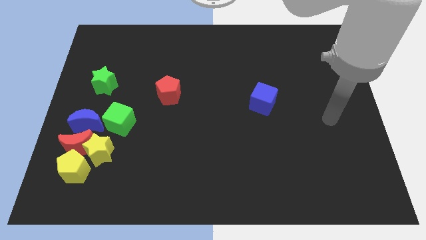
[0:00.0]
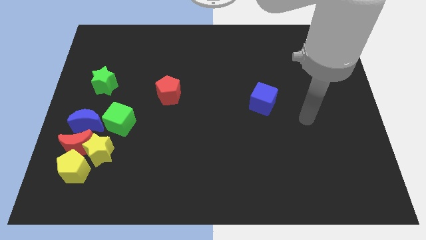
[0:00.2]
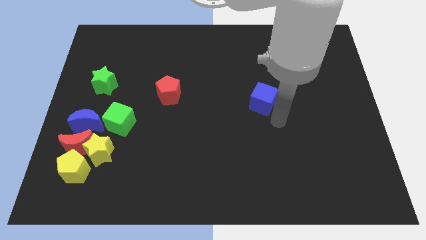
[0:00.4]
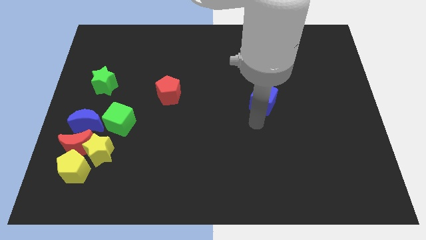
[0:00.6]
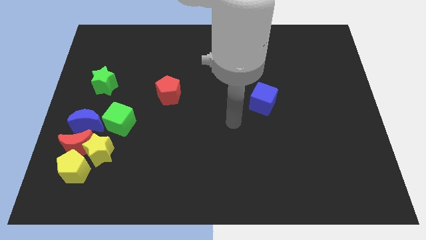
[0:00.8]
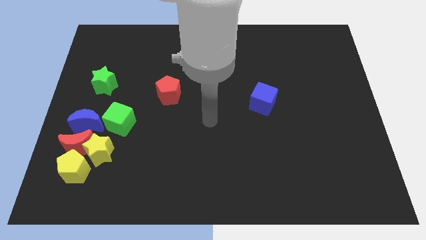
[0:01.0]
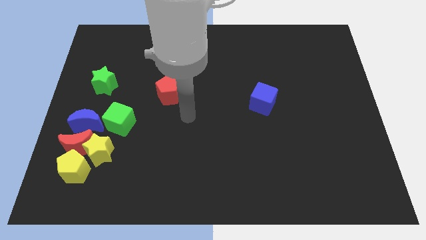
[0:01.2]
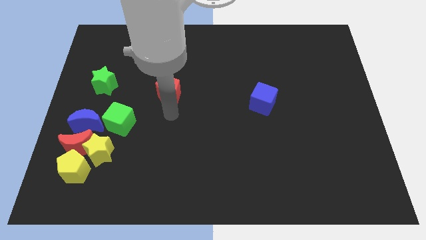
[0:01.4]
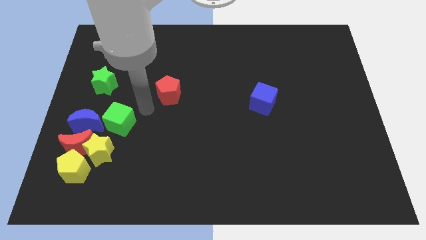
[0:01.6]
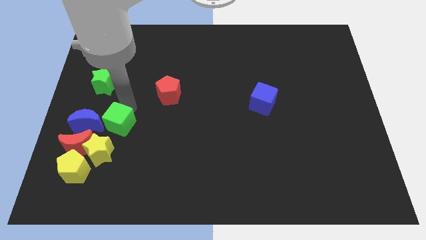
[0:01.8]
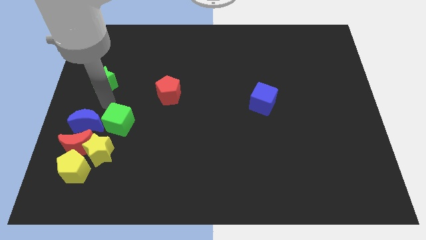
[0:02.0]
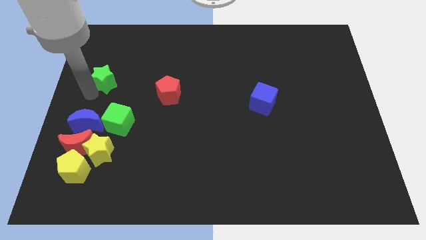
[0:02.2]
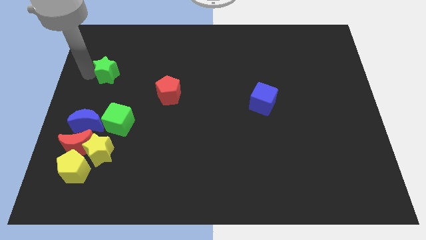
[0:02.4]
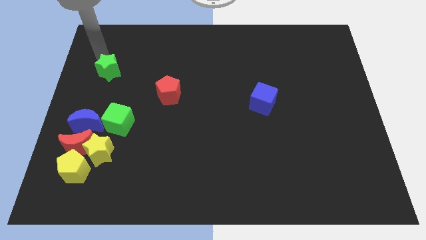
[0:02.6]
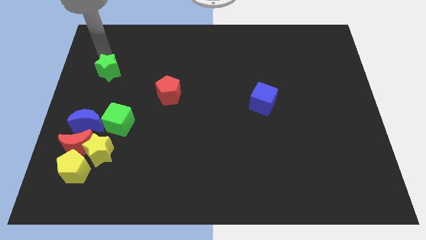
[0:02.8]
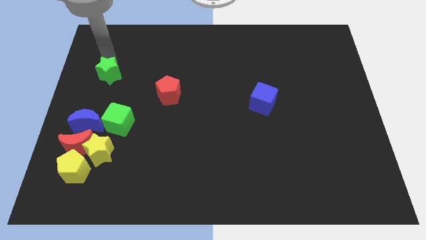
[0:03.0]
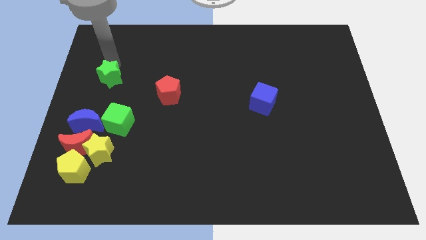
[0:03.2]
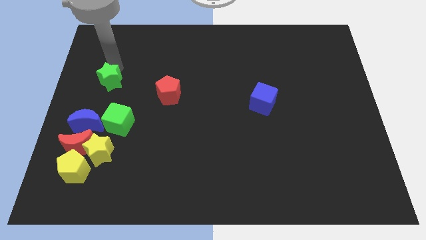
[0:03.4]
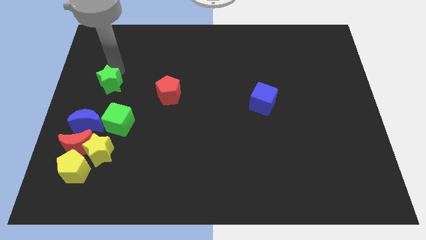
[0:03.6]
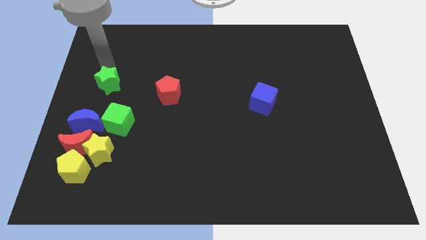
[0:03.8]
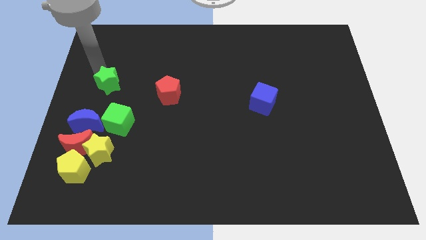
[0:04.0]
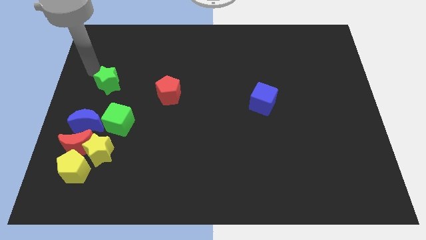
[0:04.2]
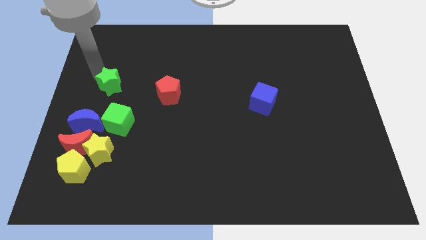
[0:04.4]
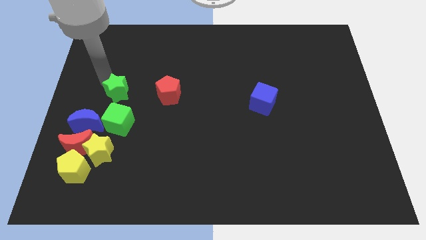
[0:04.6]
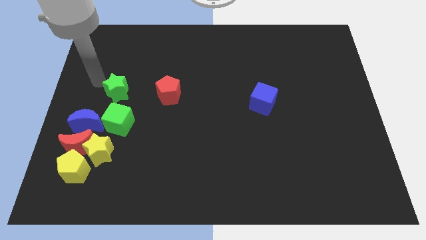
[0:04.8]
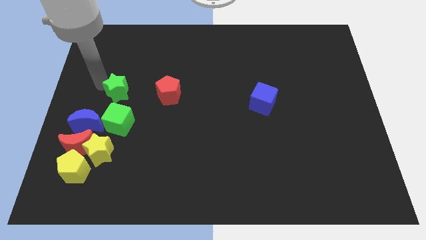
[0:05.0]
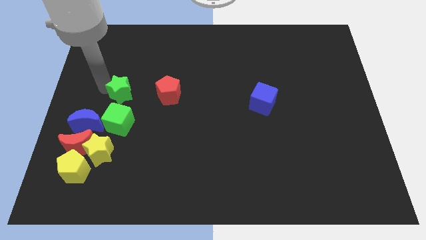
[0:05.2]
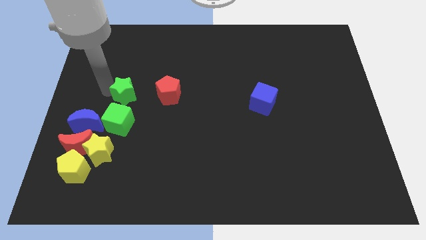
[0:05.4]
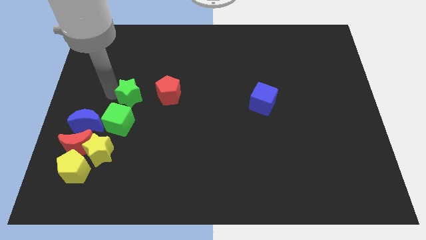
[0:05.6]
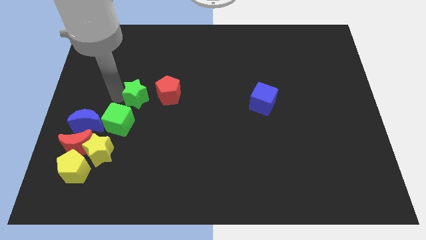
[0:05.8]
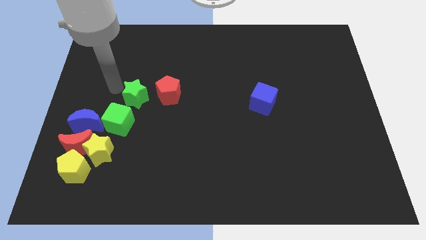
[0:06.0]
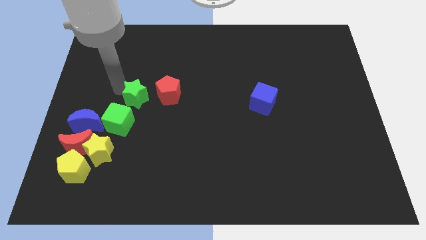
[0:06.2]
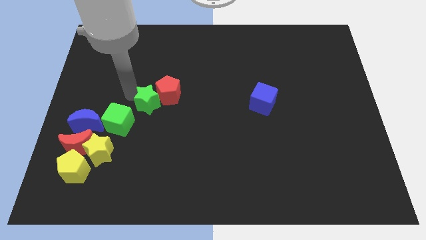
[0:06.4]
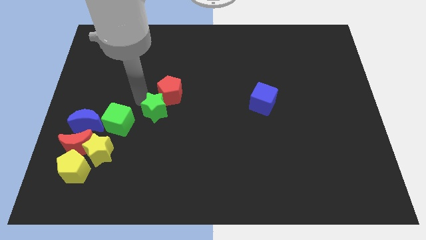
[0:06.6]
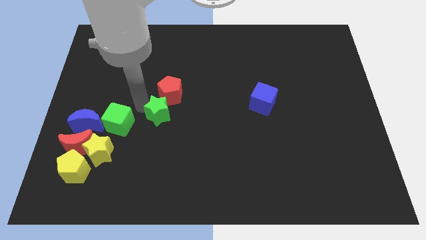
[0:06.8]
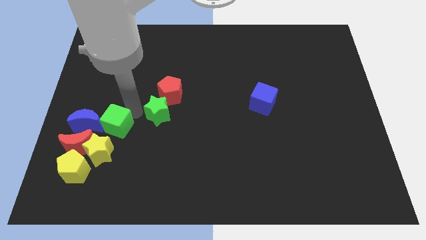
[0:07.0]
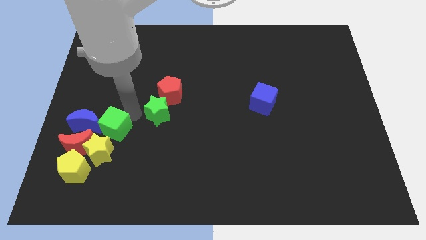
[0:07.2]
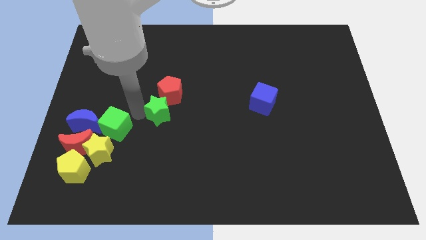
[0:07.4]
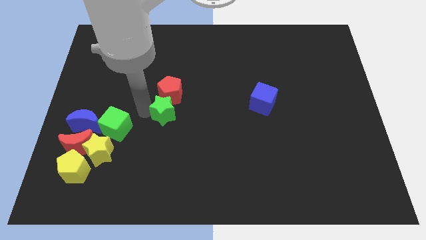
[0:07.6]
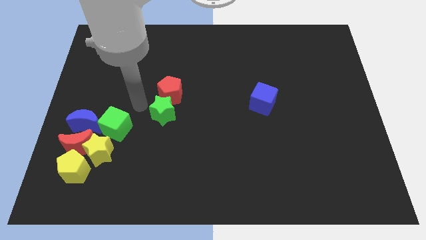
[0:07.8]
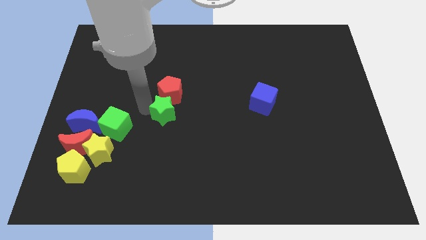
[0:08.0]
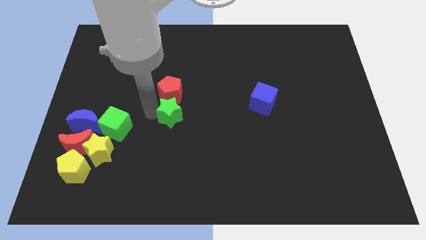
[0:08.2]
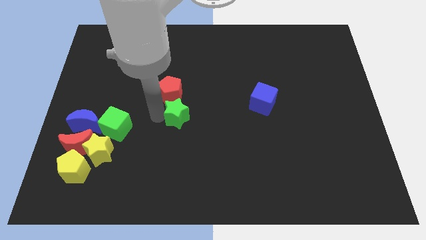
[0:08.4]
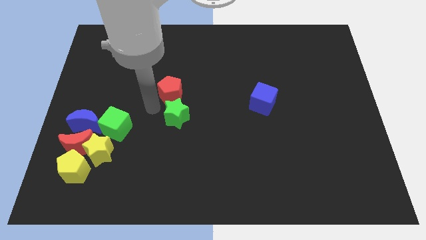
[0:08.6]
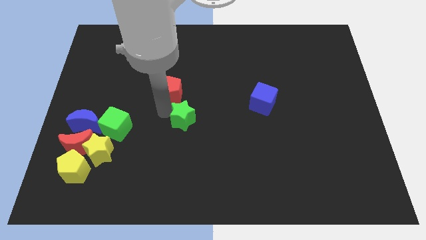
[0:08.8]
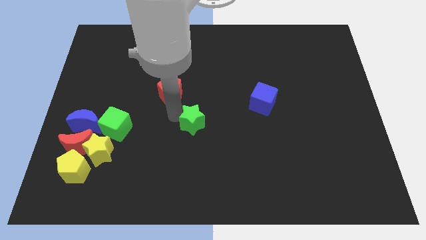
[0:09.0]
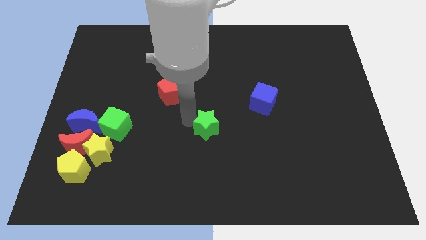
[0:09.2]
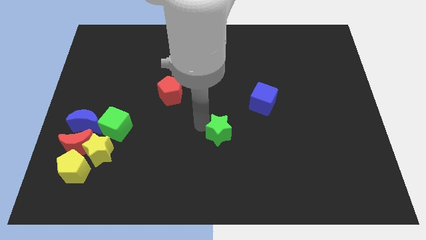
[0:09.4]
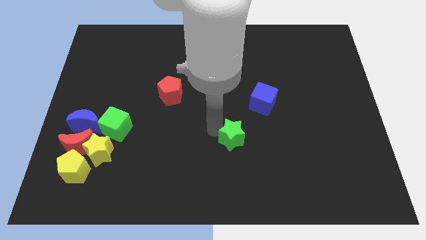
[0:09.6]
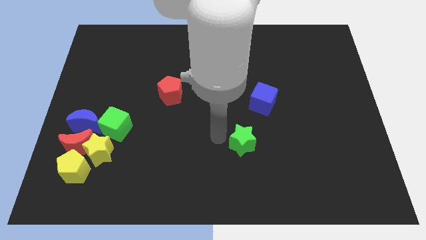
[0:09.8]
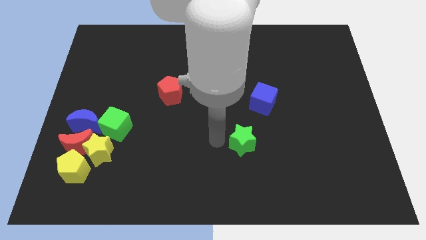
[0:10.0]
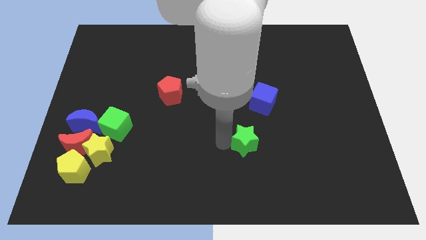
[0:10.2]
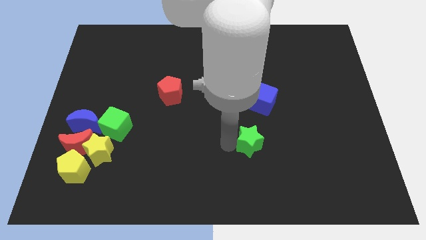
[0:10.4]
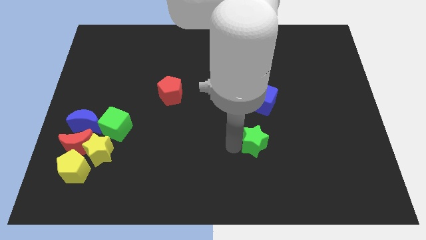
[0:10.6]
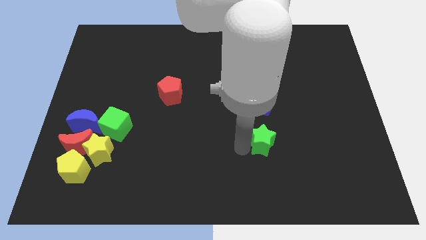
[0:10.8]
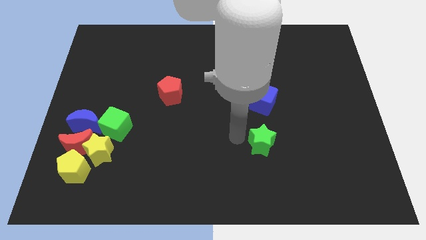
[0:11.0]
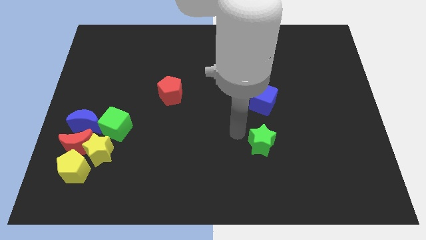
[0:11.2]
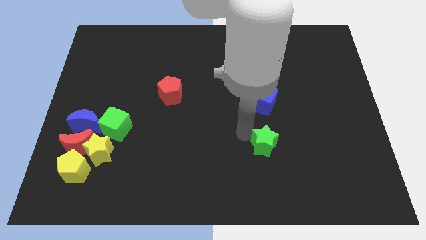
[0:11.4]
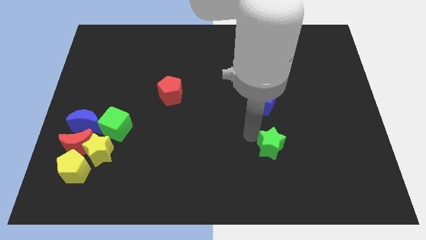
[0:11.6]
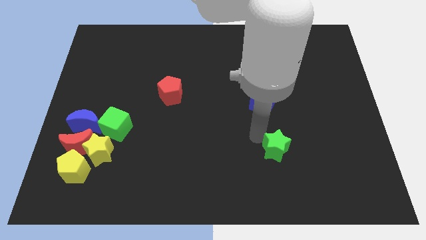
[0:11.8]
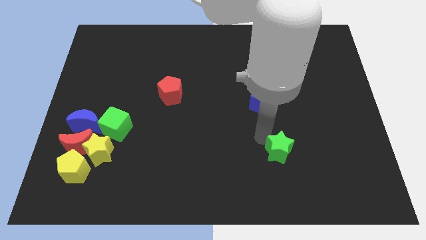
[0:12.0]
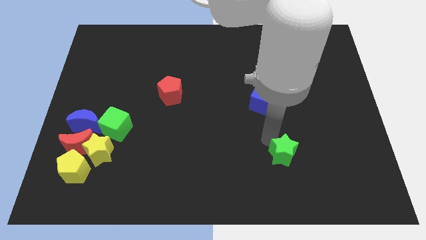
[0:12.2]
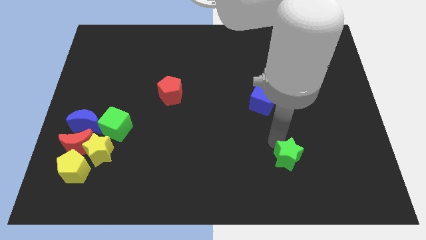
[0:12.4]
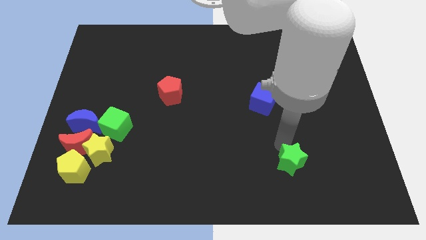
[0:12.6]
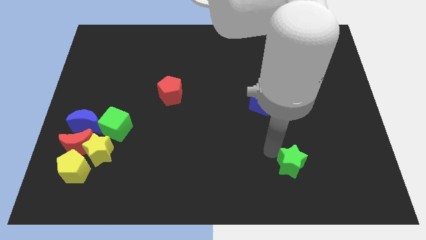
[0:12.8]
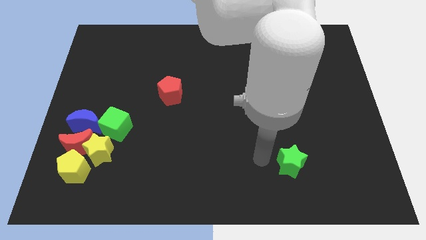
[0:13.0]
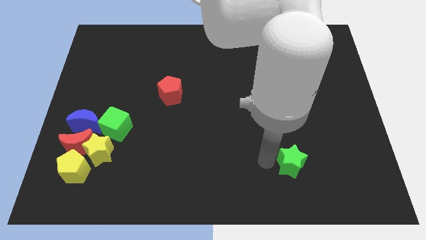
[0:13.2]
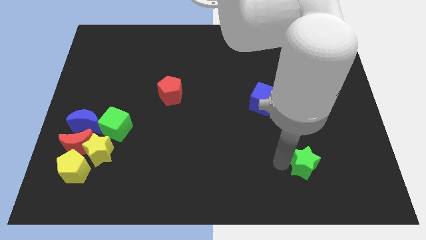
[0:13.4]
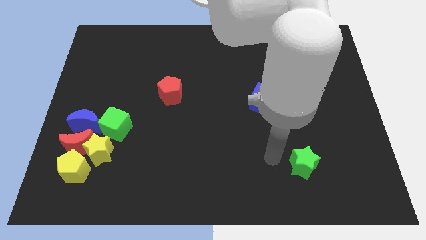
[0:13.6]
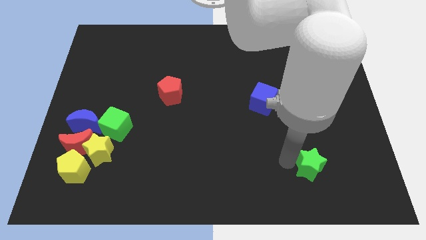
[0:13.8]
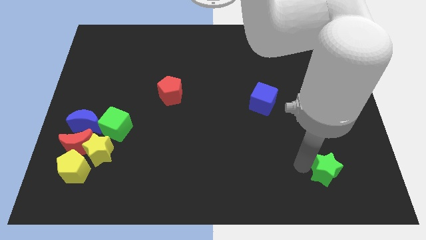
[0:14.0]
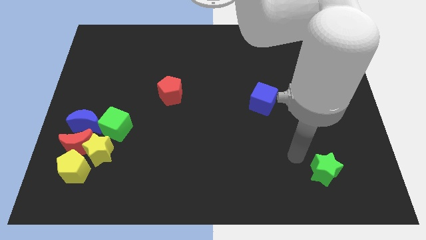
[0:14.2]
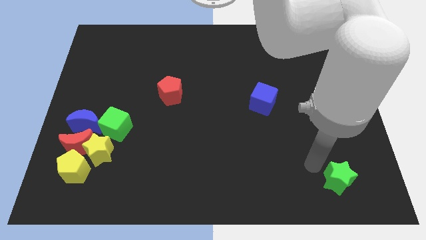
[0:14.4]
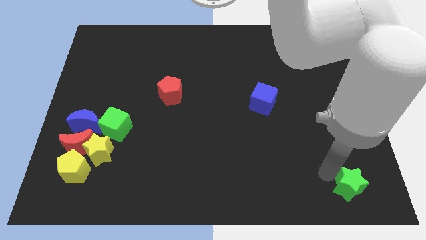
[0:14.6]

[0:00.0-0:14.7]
put the green star to the bottom right
